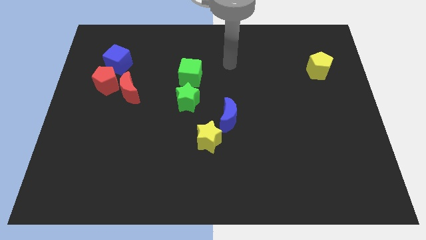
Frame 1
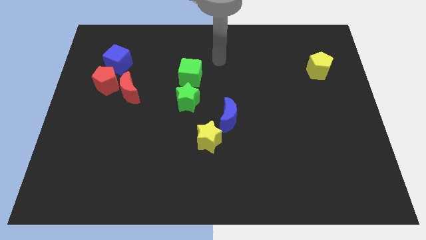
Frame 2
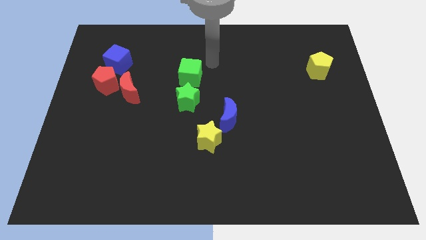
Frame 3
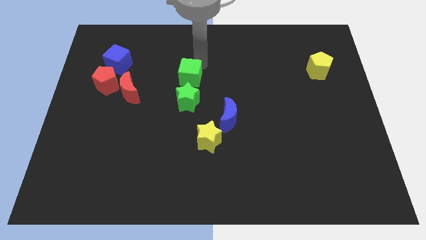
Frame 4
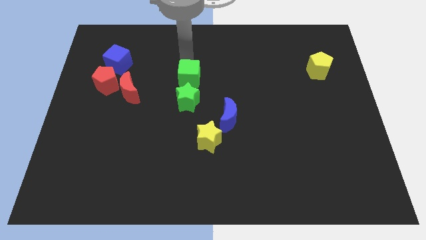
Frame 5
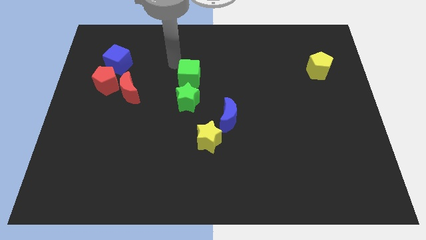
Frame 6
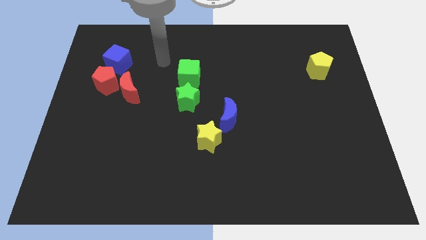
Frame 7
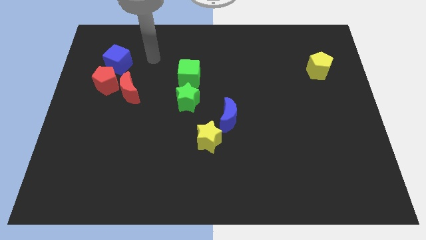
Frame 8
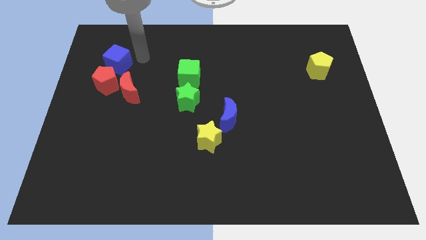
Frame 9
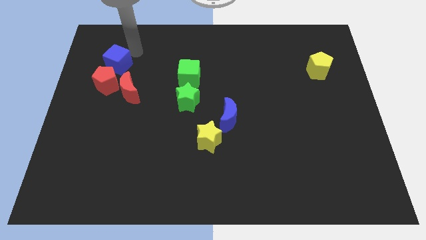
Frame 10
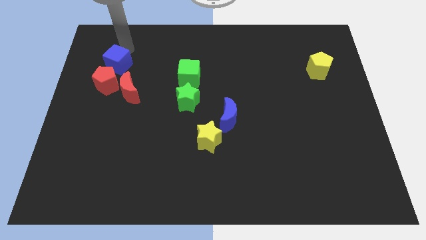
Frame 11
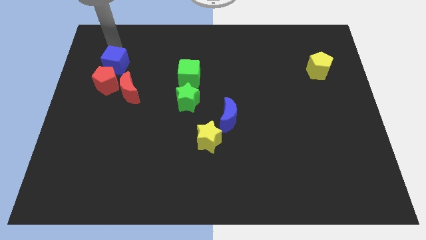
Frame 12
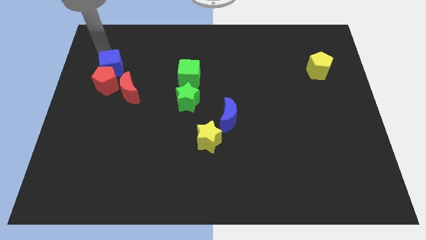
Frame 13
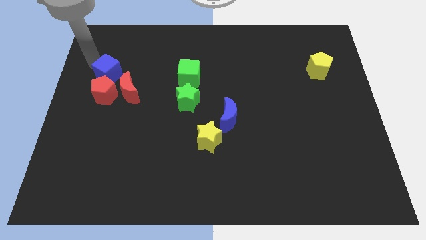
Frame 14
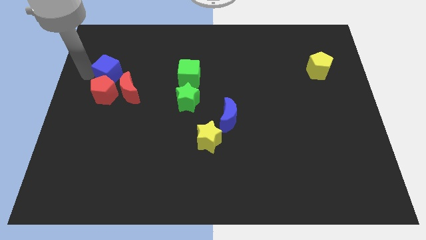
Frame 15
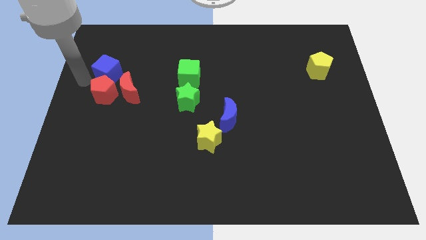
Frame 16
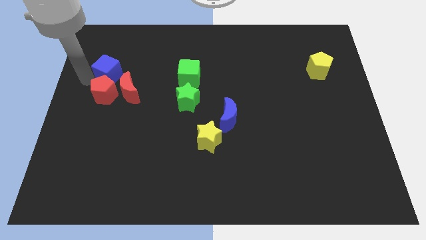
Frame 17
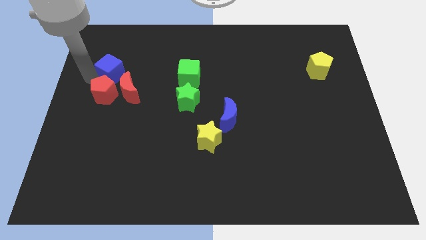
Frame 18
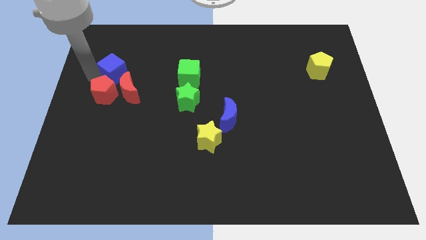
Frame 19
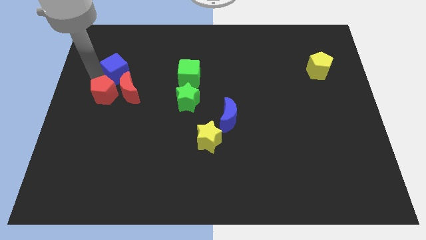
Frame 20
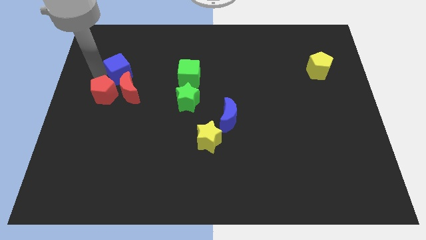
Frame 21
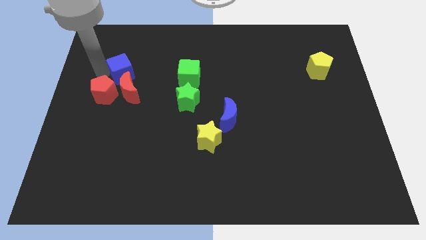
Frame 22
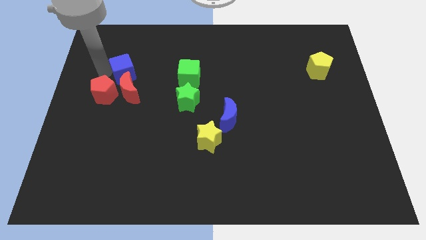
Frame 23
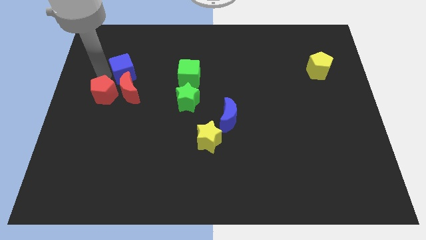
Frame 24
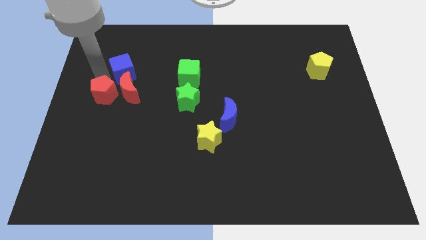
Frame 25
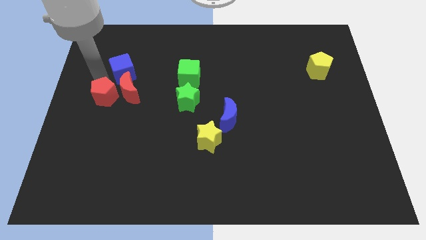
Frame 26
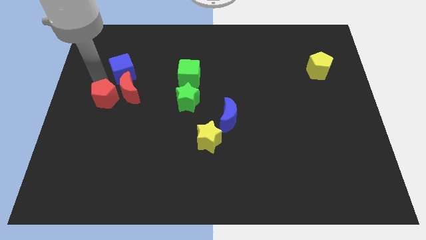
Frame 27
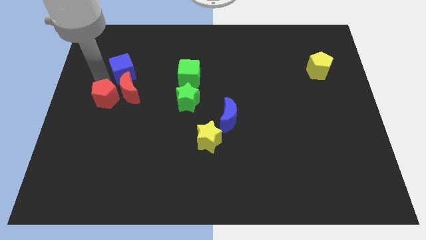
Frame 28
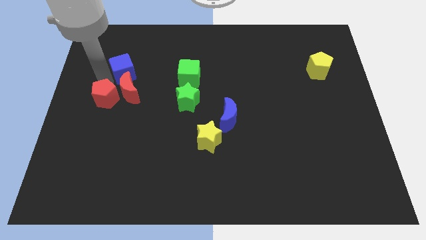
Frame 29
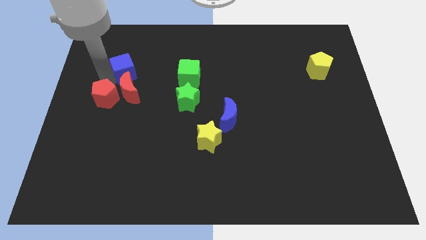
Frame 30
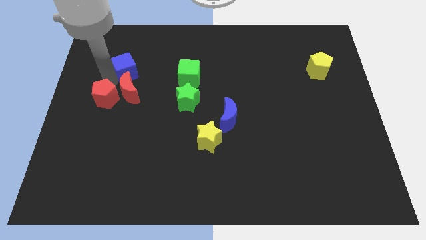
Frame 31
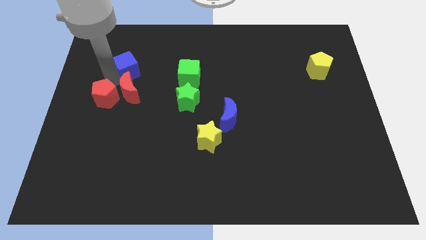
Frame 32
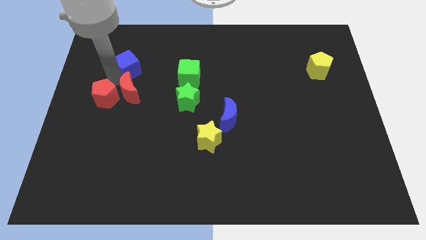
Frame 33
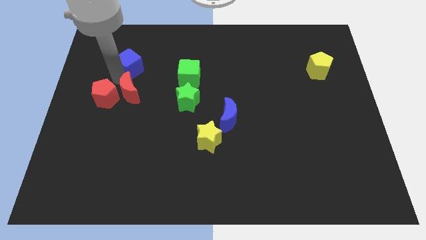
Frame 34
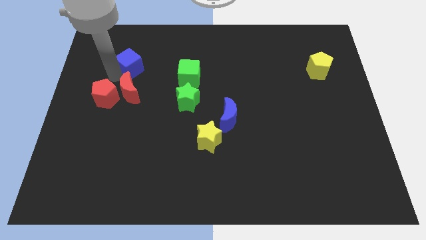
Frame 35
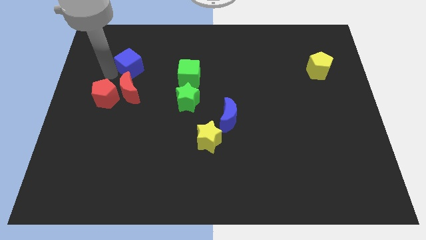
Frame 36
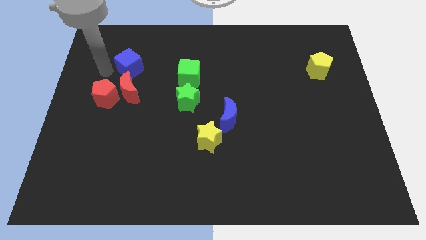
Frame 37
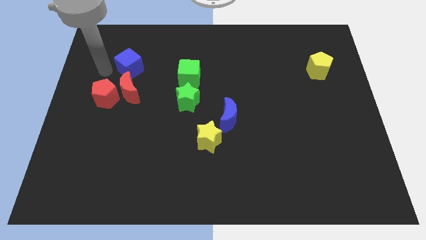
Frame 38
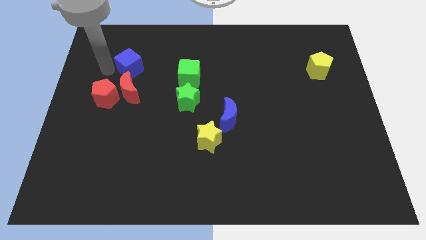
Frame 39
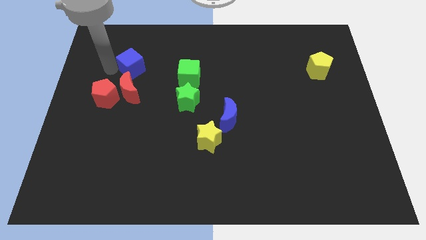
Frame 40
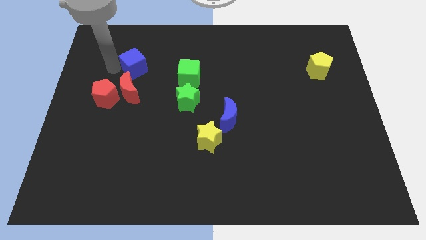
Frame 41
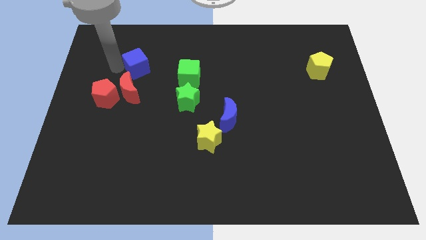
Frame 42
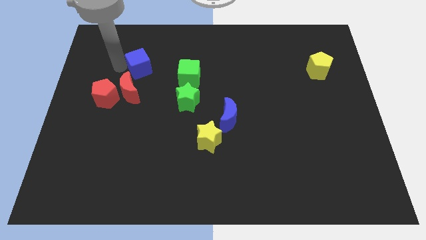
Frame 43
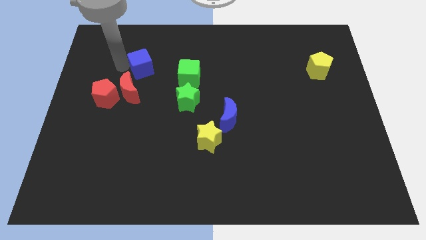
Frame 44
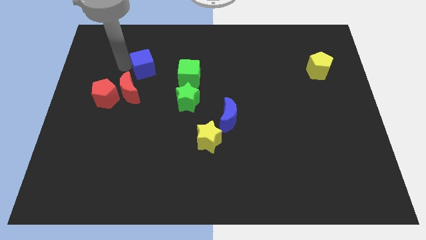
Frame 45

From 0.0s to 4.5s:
move the blue cube a little bit to the right

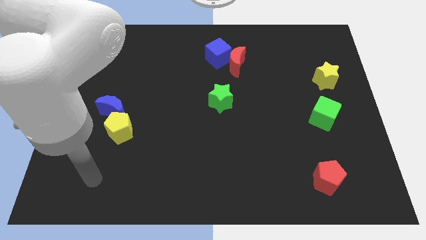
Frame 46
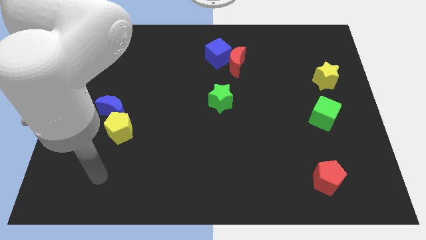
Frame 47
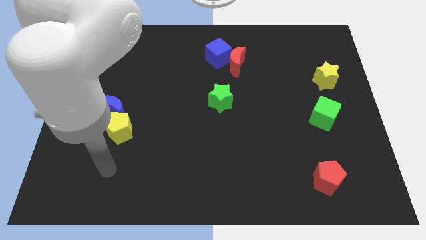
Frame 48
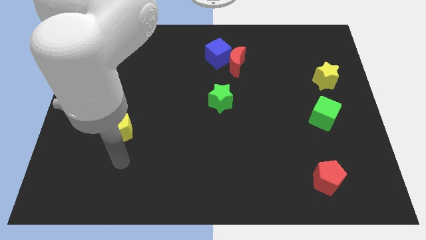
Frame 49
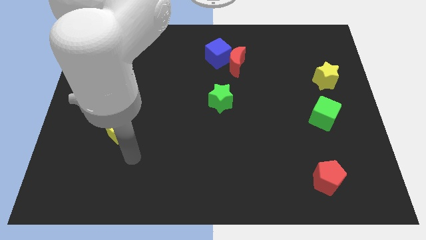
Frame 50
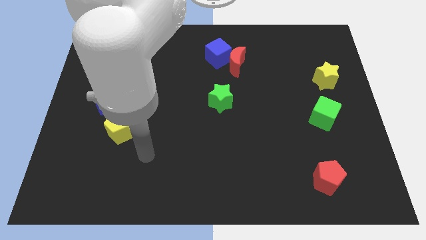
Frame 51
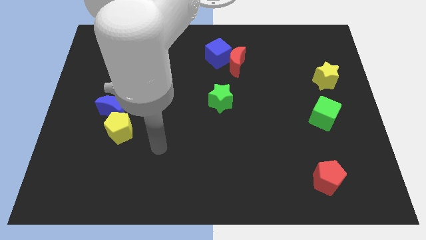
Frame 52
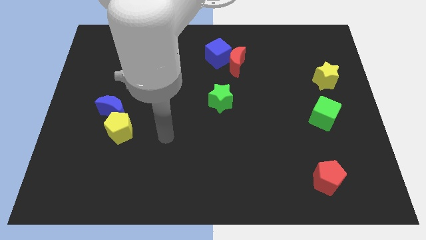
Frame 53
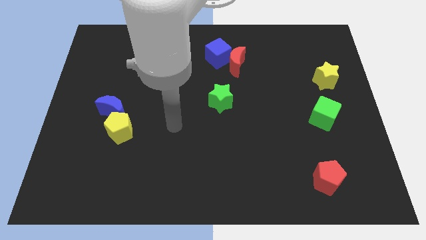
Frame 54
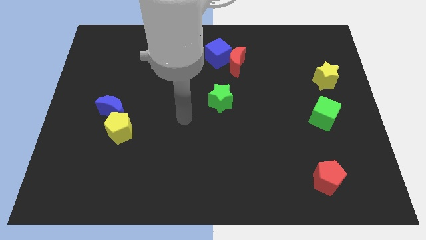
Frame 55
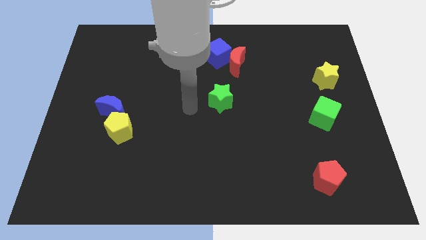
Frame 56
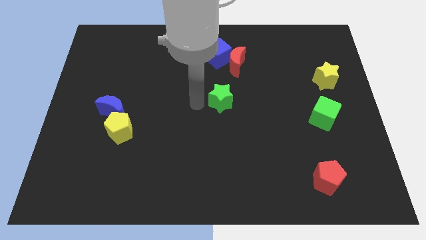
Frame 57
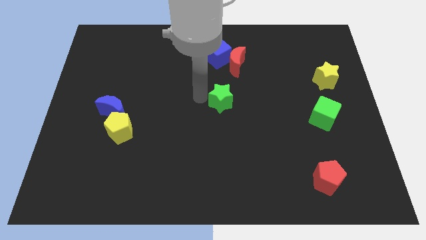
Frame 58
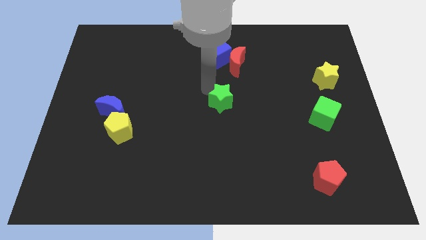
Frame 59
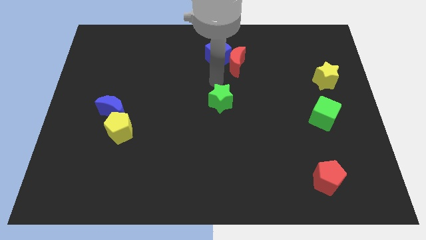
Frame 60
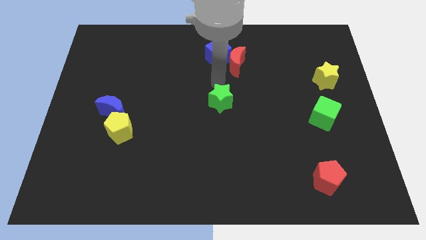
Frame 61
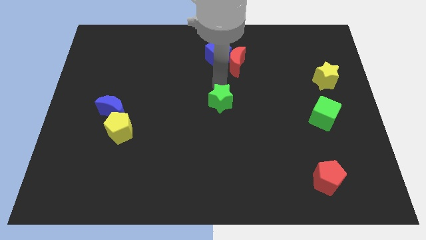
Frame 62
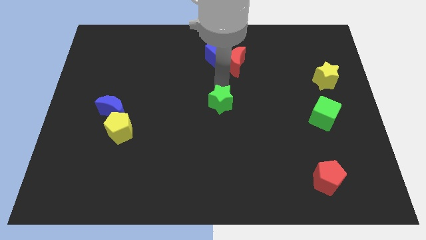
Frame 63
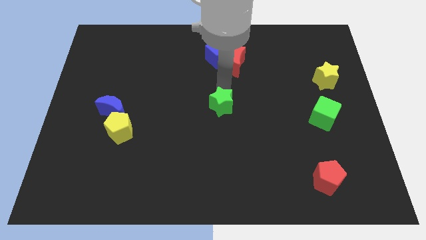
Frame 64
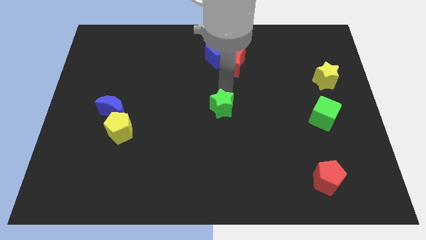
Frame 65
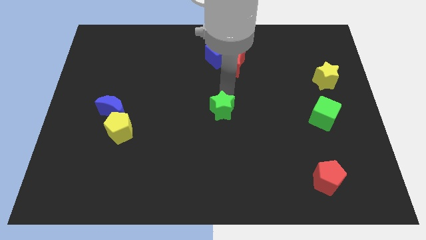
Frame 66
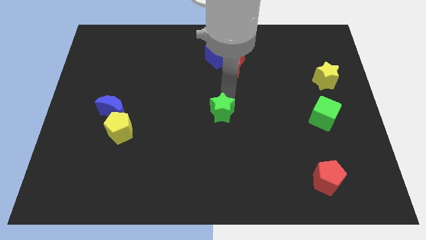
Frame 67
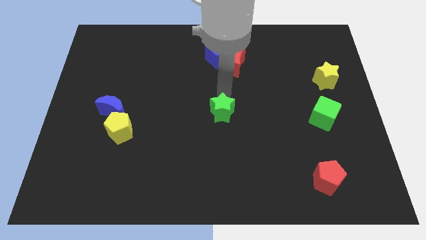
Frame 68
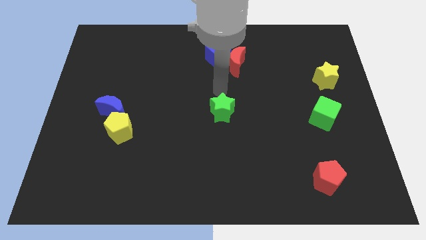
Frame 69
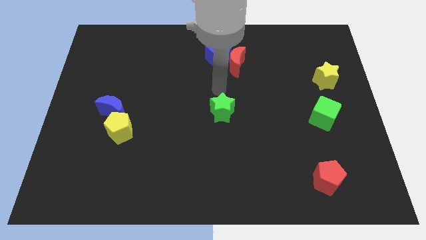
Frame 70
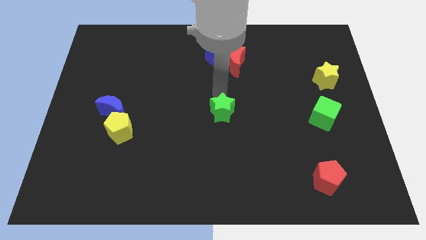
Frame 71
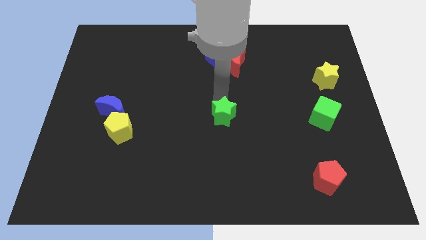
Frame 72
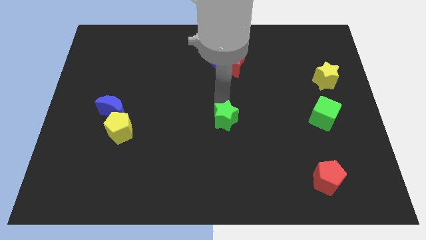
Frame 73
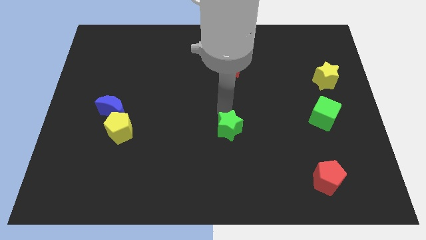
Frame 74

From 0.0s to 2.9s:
slightly slide the green star downwards

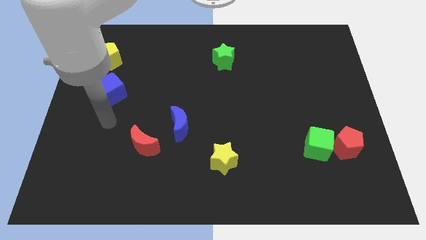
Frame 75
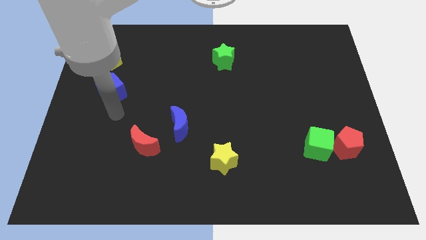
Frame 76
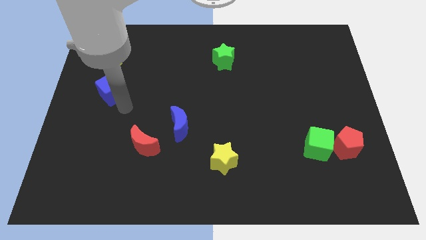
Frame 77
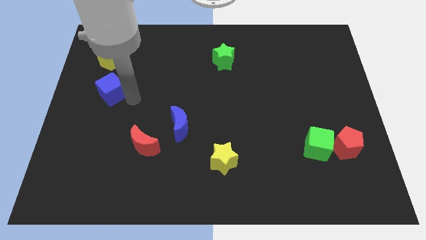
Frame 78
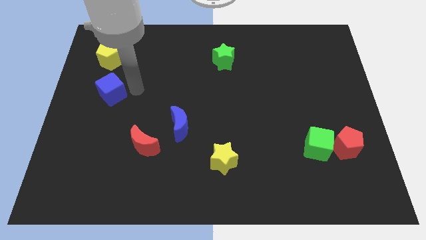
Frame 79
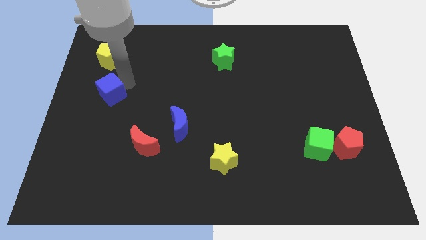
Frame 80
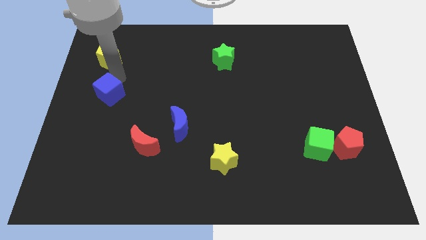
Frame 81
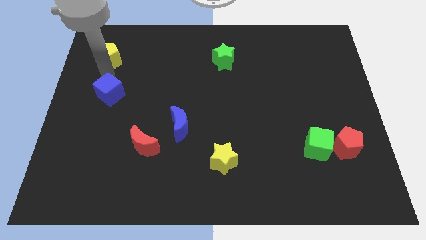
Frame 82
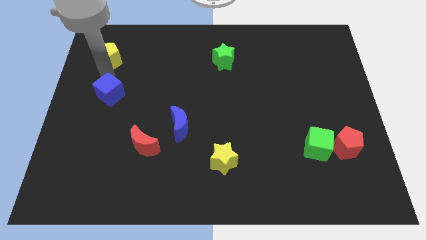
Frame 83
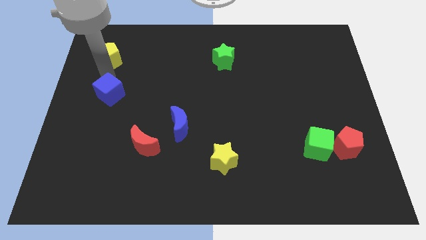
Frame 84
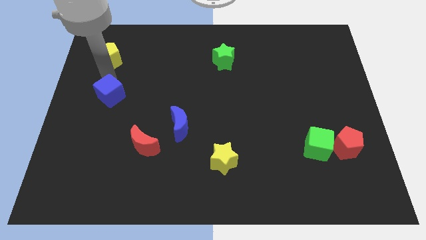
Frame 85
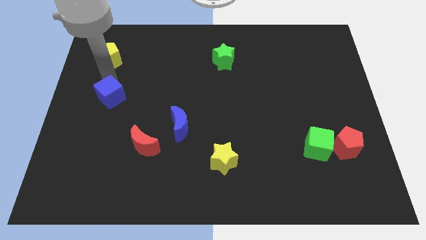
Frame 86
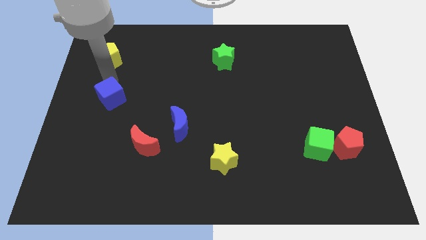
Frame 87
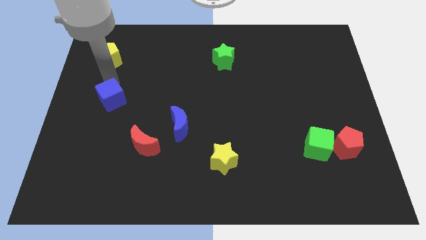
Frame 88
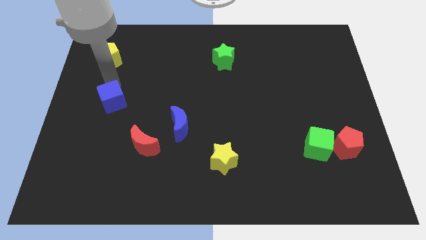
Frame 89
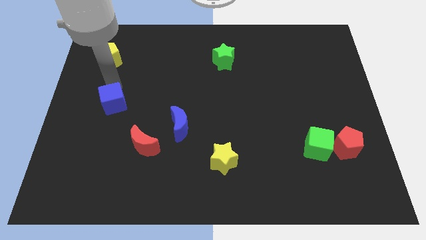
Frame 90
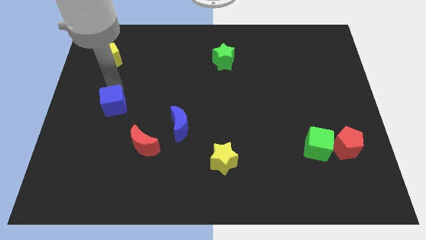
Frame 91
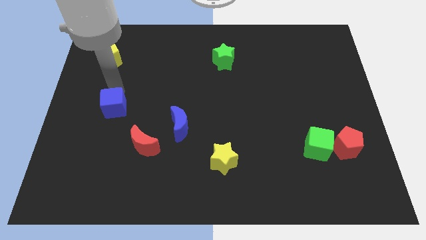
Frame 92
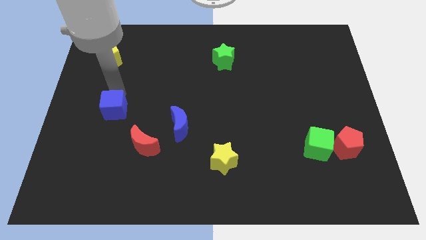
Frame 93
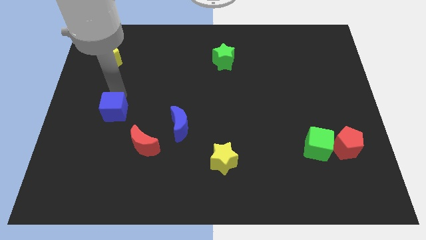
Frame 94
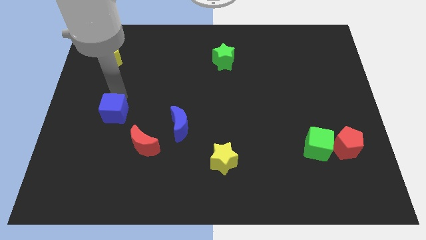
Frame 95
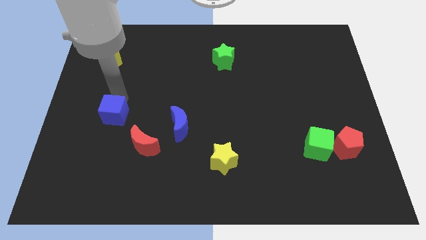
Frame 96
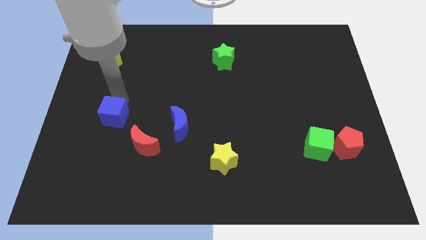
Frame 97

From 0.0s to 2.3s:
slide the blue cube a little bit down
